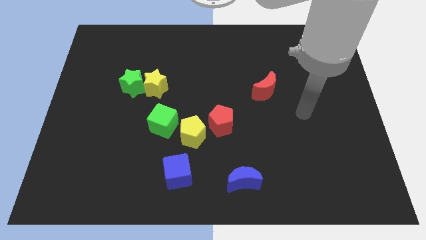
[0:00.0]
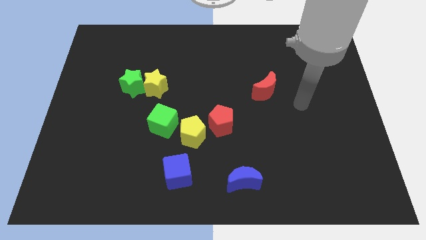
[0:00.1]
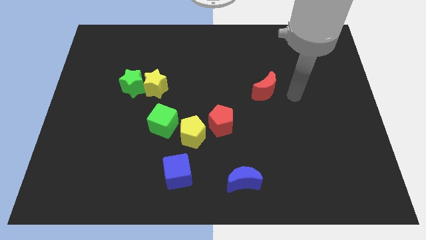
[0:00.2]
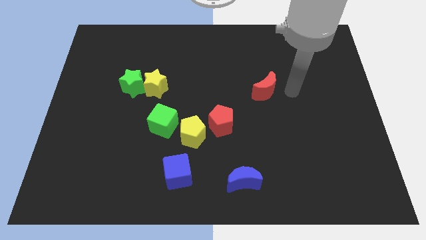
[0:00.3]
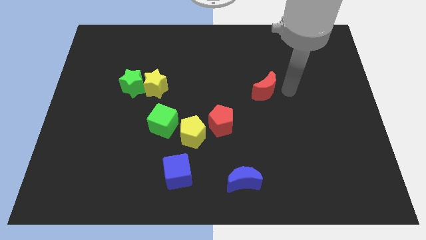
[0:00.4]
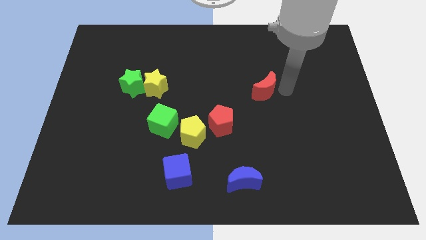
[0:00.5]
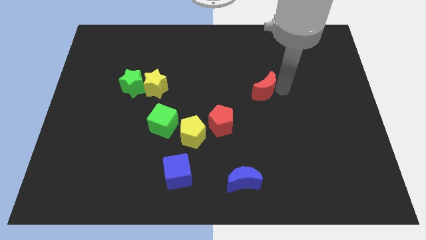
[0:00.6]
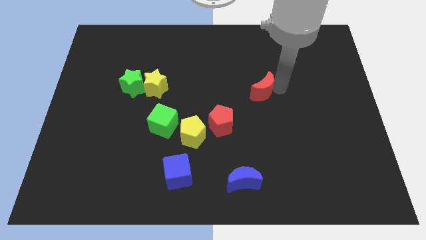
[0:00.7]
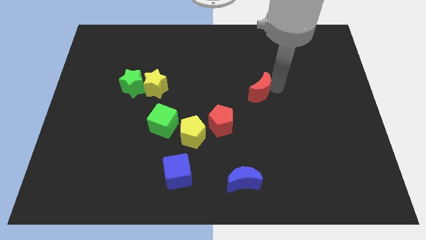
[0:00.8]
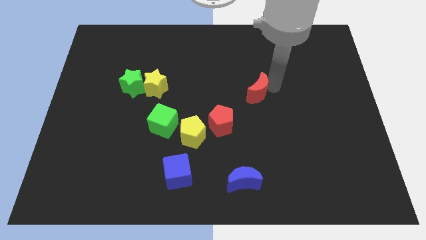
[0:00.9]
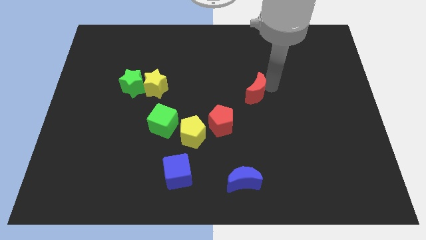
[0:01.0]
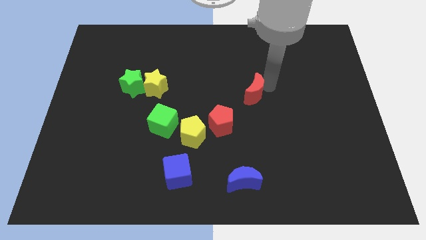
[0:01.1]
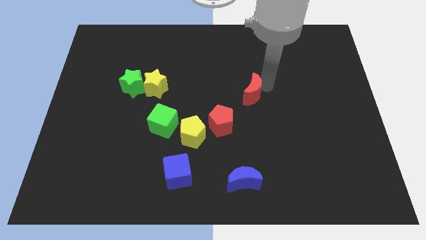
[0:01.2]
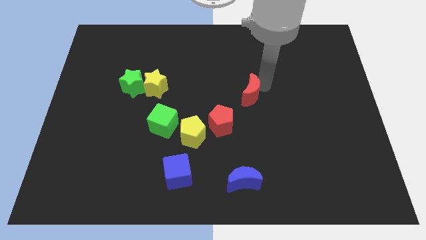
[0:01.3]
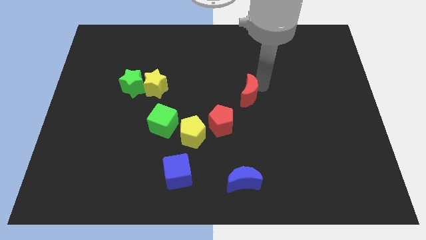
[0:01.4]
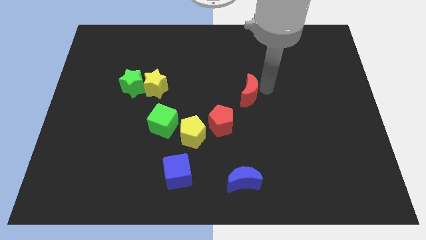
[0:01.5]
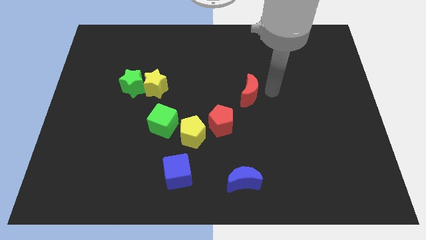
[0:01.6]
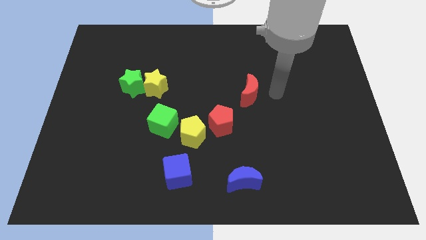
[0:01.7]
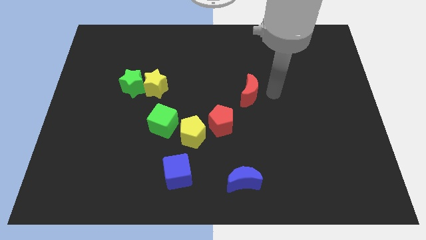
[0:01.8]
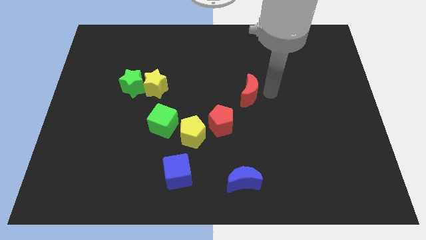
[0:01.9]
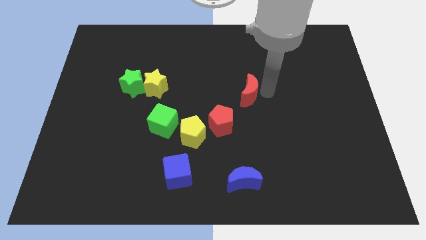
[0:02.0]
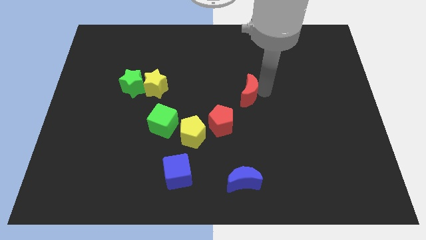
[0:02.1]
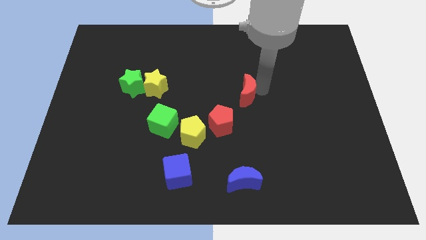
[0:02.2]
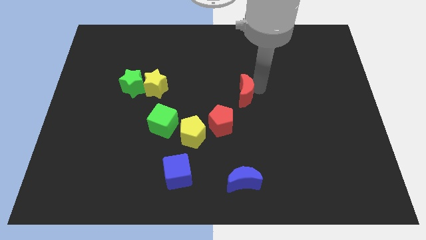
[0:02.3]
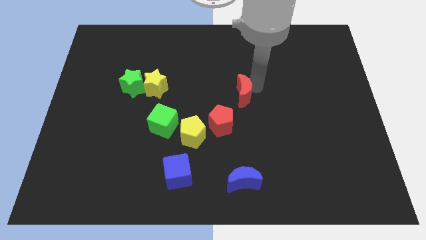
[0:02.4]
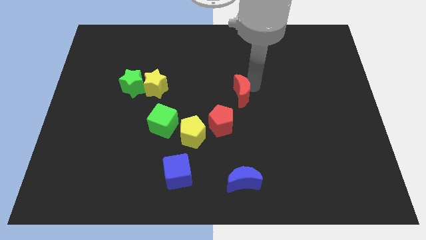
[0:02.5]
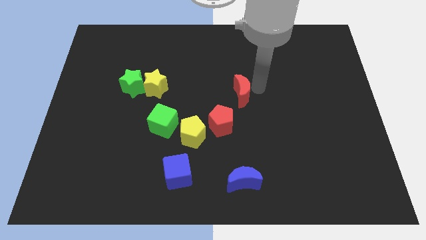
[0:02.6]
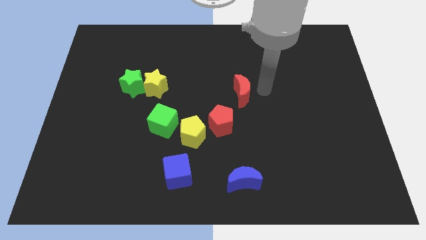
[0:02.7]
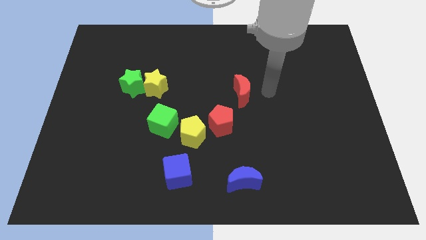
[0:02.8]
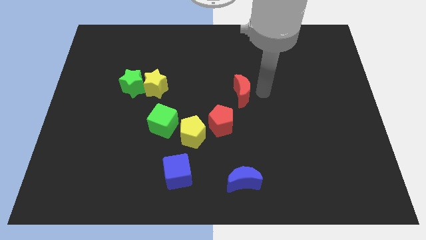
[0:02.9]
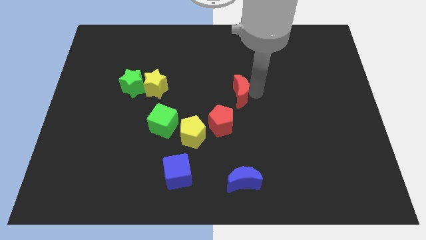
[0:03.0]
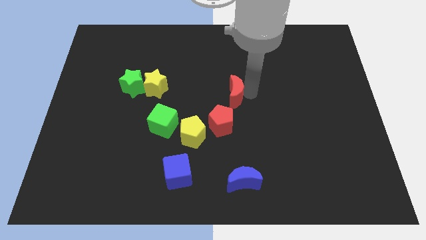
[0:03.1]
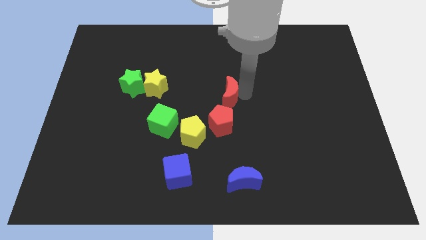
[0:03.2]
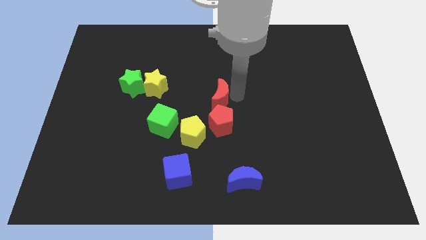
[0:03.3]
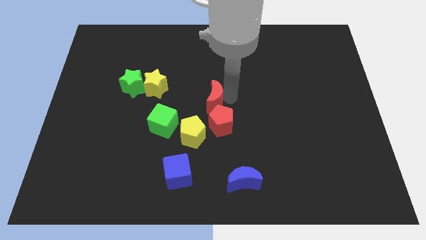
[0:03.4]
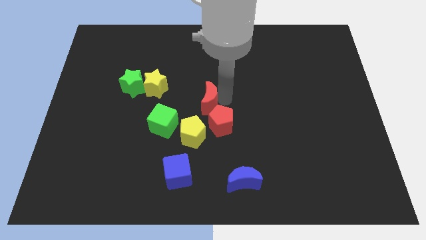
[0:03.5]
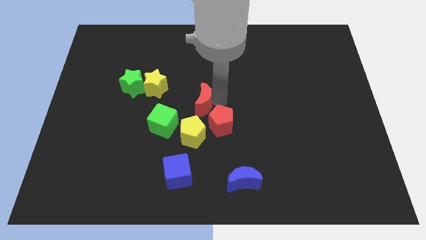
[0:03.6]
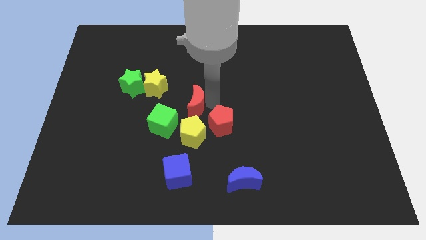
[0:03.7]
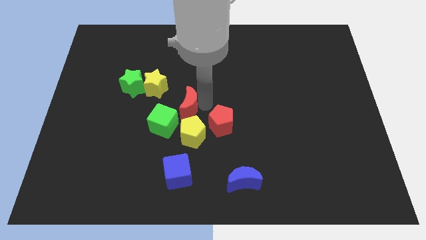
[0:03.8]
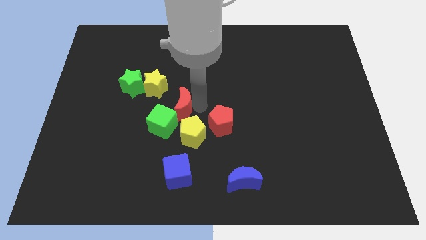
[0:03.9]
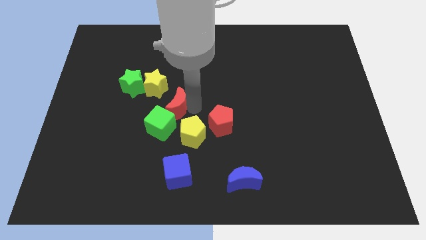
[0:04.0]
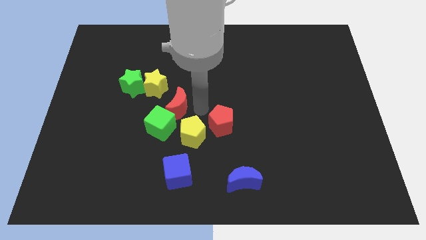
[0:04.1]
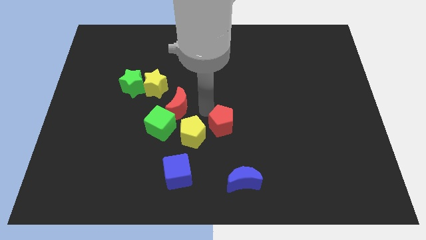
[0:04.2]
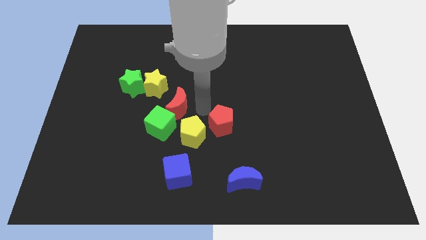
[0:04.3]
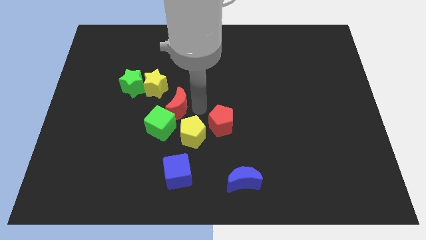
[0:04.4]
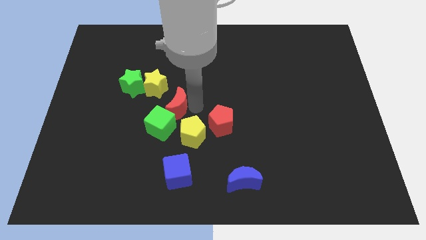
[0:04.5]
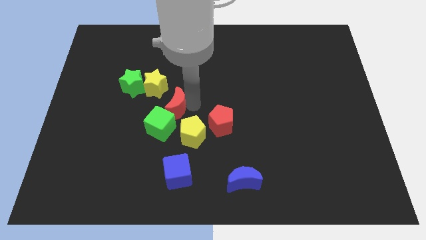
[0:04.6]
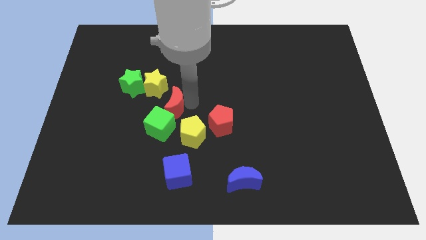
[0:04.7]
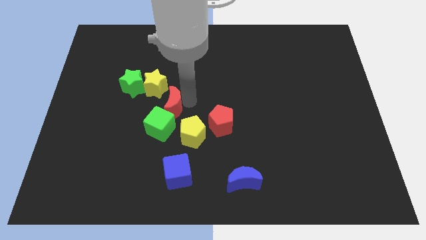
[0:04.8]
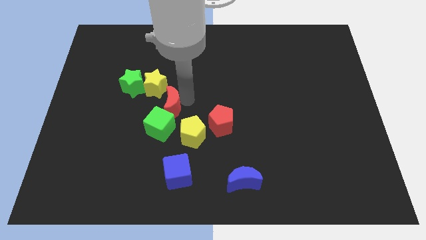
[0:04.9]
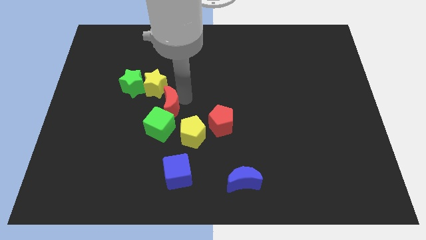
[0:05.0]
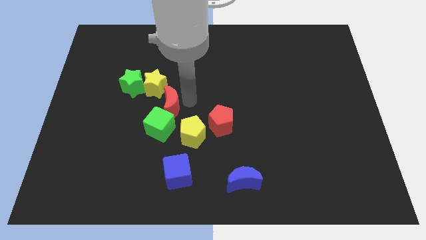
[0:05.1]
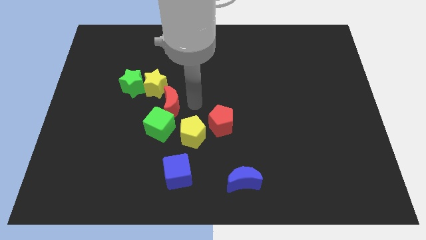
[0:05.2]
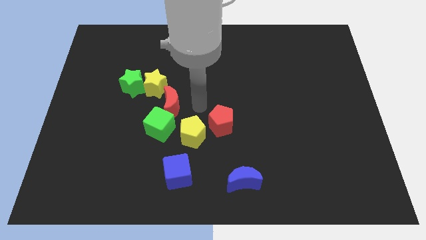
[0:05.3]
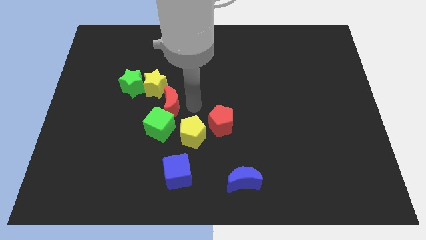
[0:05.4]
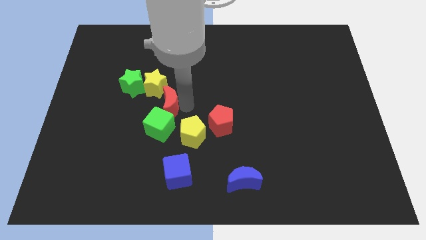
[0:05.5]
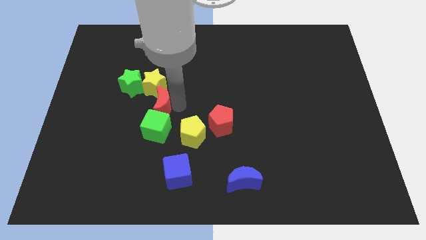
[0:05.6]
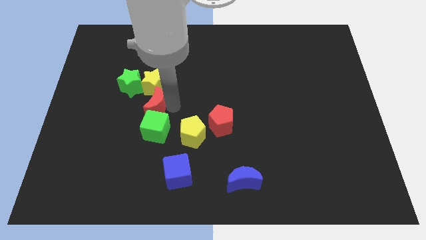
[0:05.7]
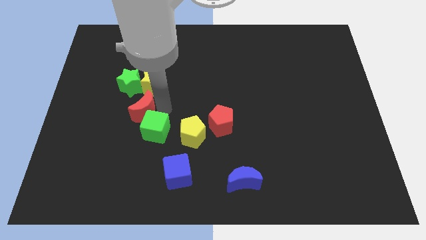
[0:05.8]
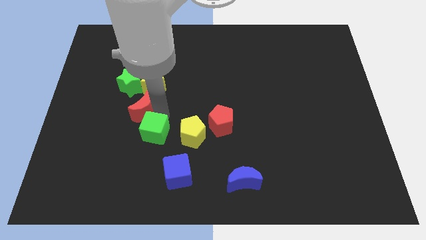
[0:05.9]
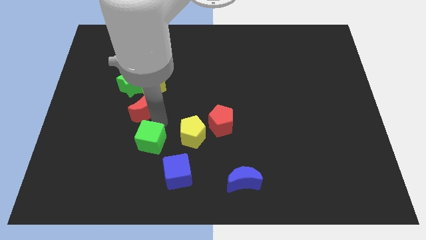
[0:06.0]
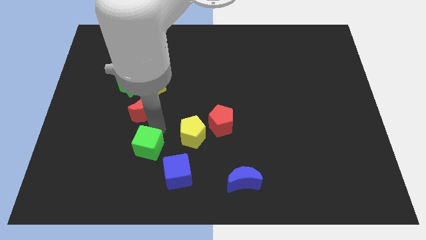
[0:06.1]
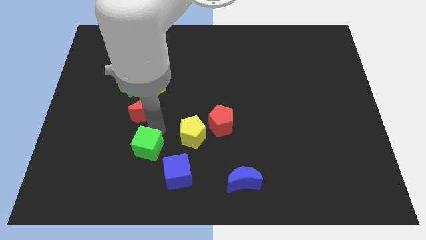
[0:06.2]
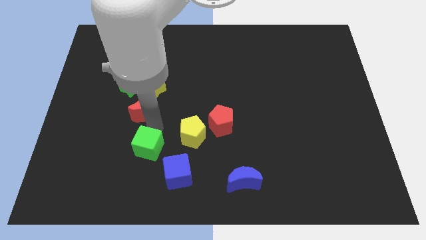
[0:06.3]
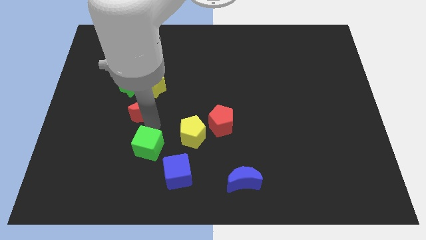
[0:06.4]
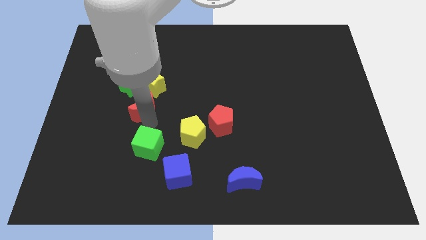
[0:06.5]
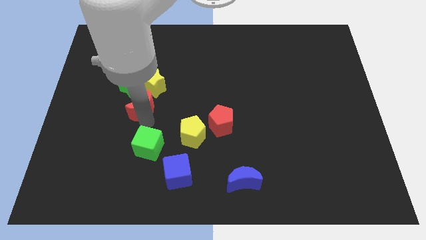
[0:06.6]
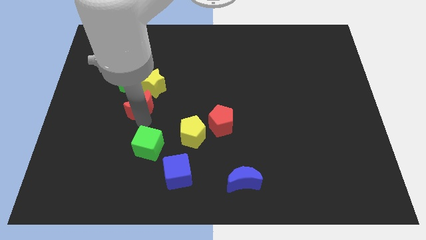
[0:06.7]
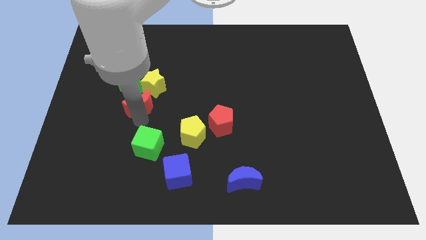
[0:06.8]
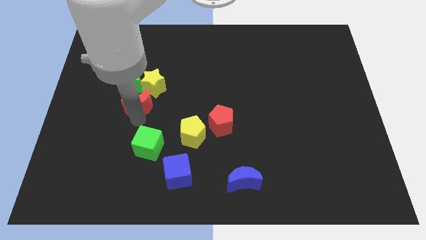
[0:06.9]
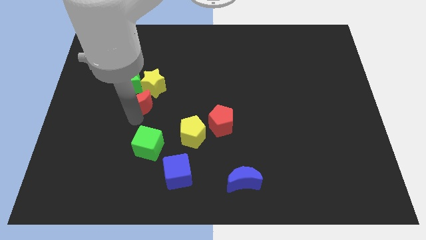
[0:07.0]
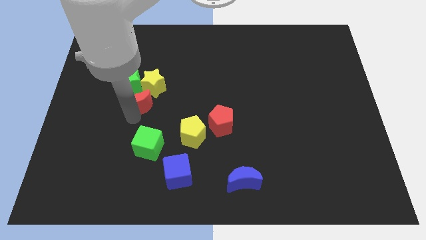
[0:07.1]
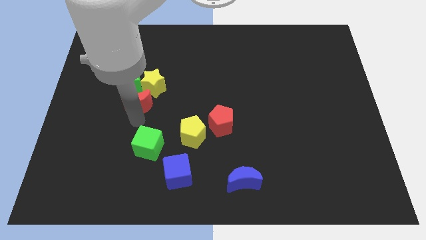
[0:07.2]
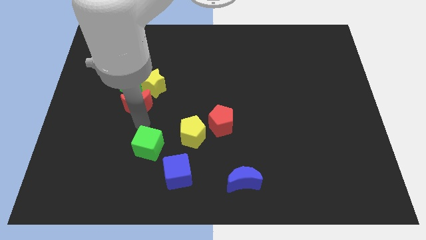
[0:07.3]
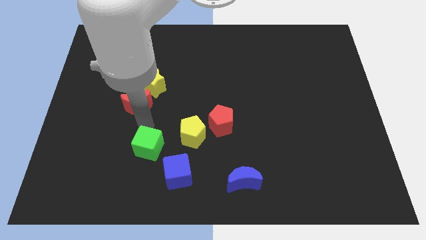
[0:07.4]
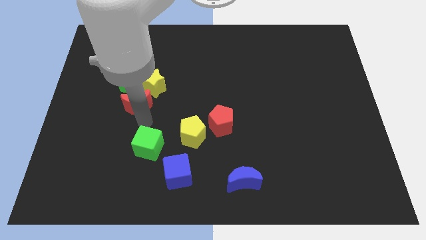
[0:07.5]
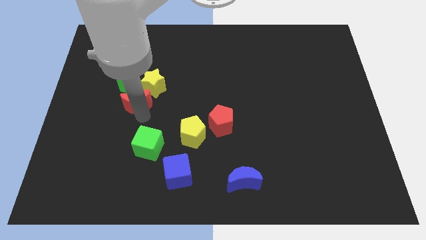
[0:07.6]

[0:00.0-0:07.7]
slide the red moon close to the green star
